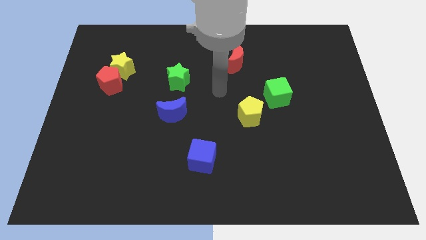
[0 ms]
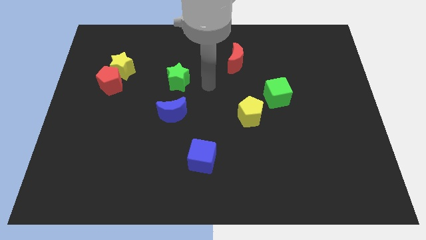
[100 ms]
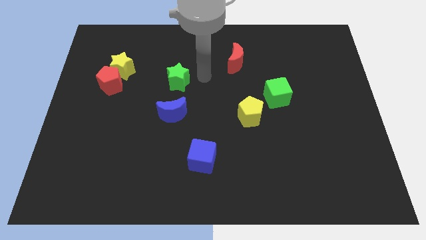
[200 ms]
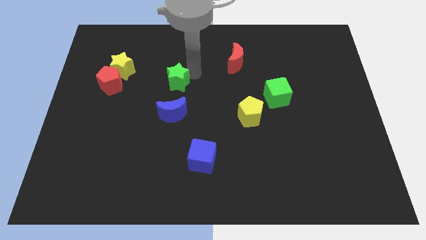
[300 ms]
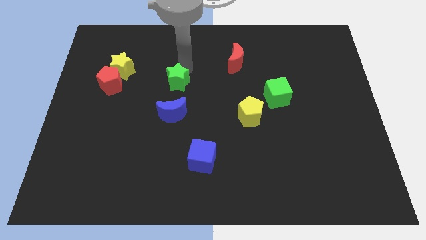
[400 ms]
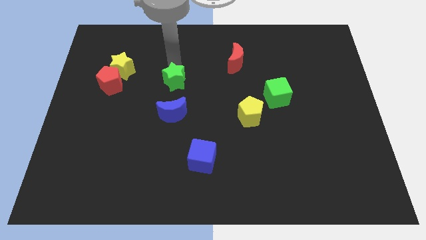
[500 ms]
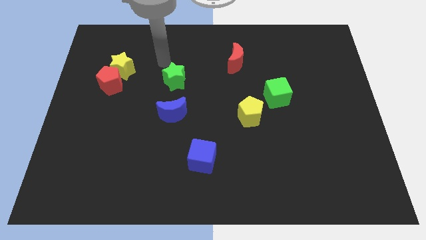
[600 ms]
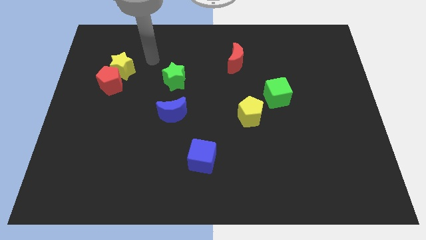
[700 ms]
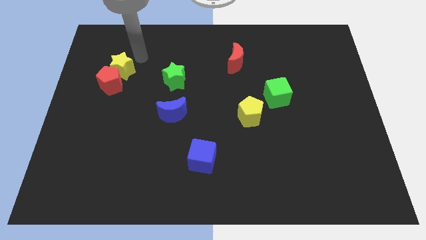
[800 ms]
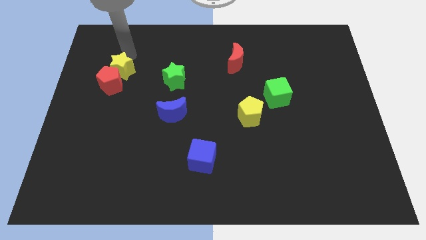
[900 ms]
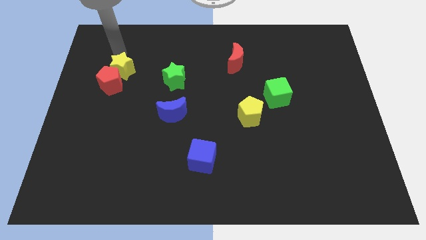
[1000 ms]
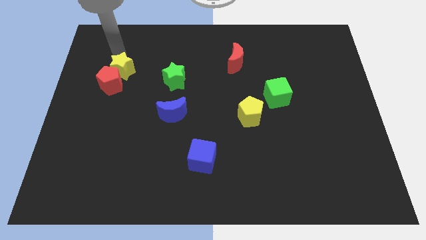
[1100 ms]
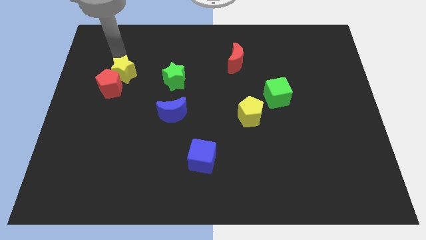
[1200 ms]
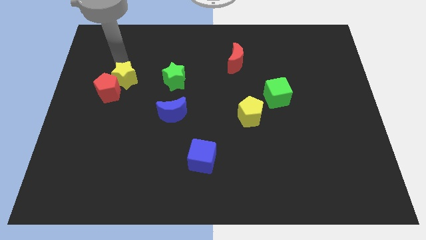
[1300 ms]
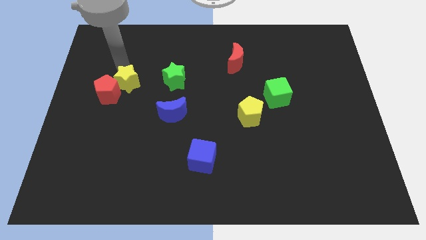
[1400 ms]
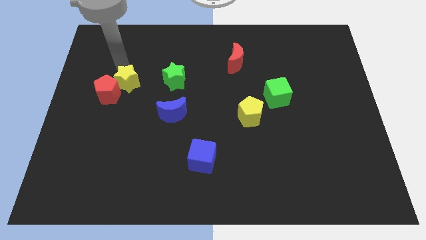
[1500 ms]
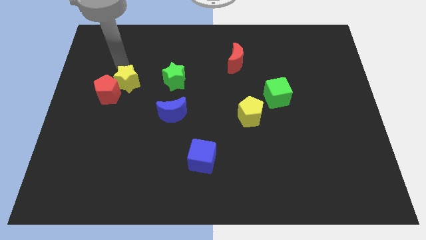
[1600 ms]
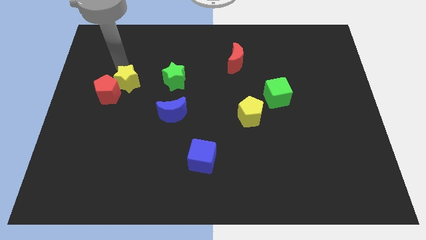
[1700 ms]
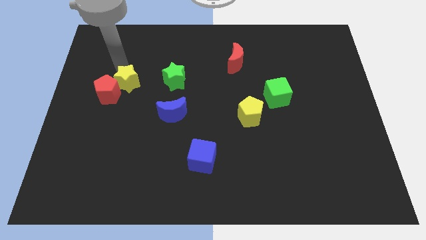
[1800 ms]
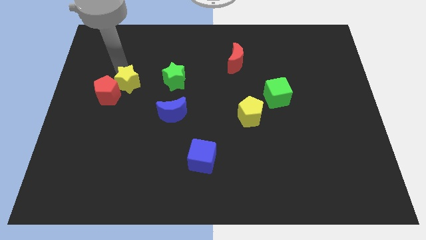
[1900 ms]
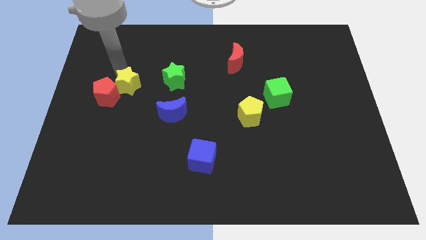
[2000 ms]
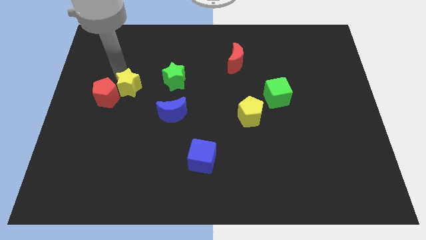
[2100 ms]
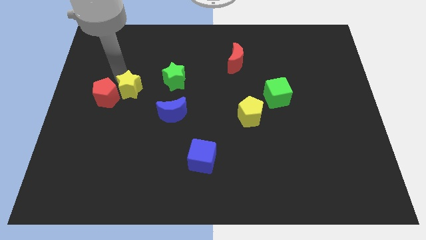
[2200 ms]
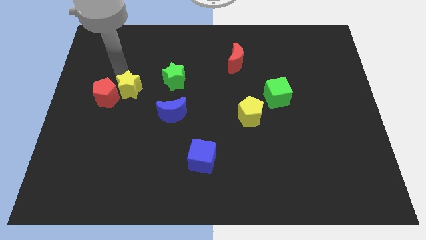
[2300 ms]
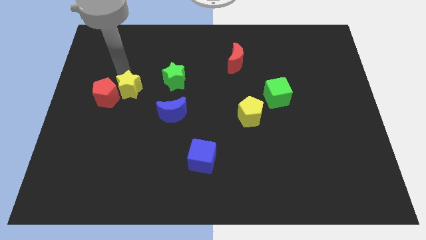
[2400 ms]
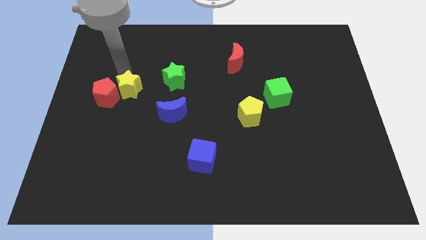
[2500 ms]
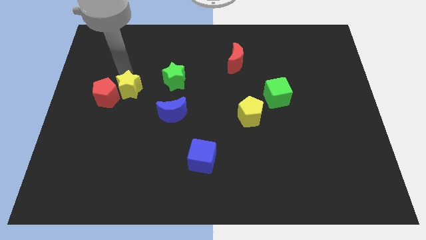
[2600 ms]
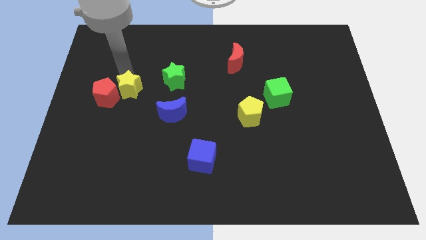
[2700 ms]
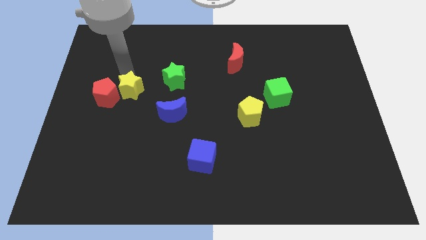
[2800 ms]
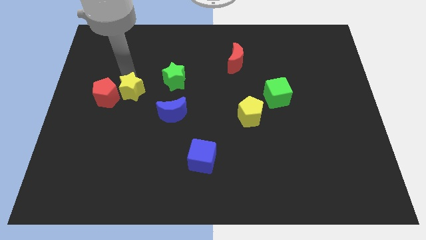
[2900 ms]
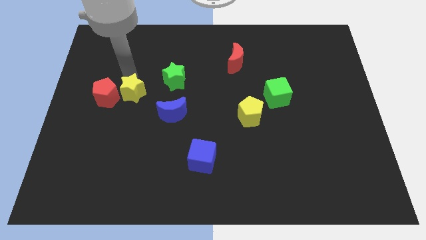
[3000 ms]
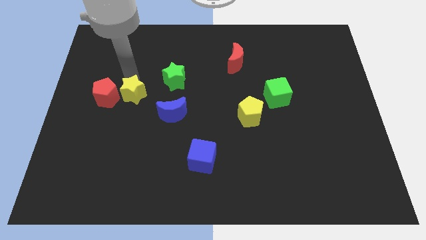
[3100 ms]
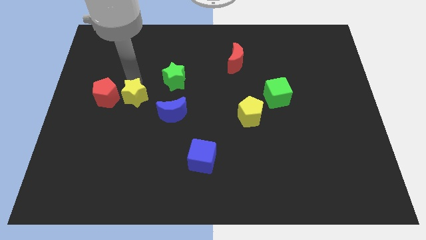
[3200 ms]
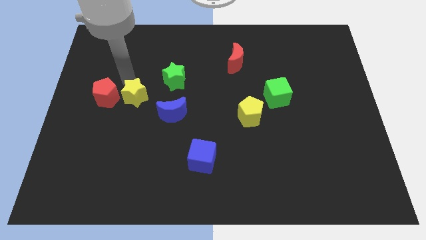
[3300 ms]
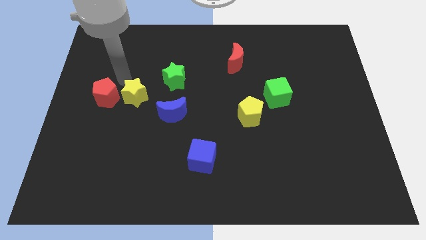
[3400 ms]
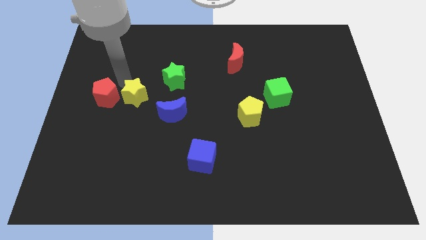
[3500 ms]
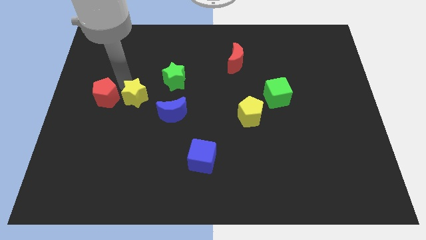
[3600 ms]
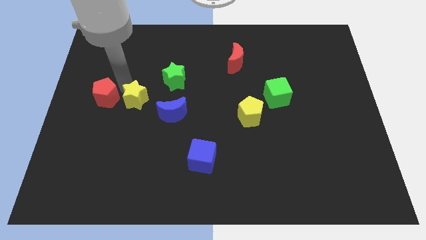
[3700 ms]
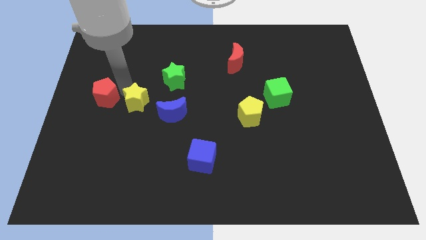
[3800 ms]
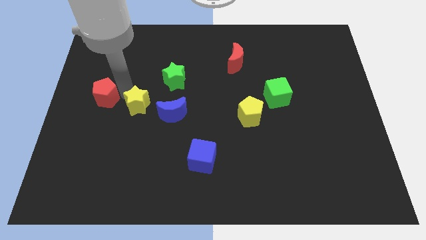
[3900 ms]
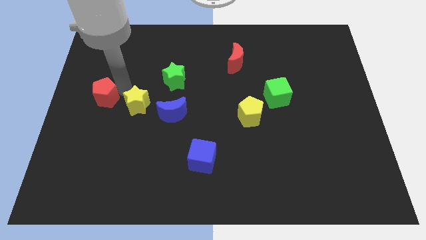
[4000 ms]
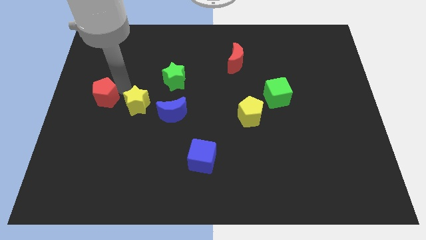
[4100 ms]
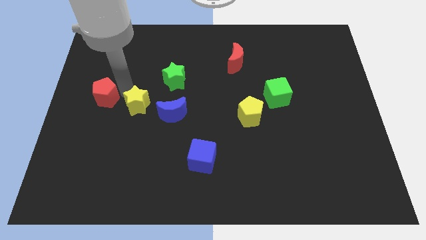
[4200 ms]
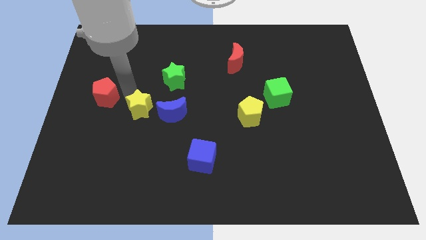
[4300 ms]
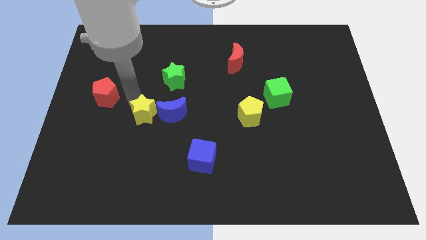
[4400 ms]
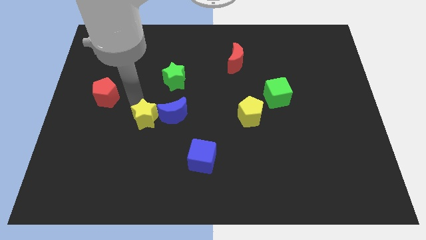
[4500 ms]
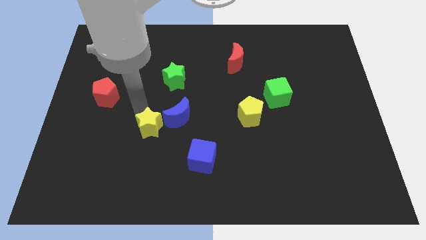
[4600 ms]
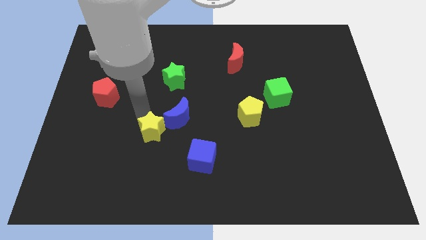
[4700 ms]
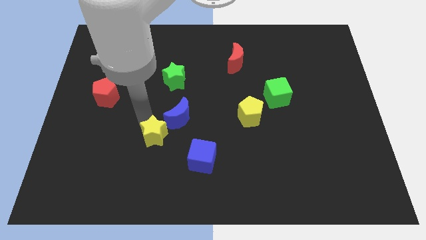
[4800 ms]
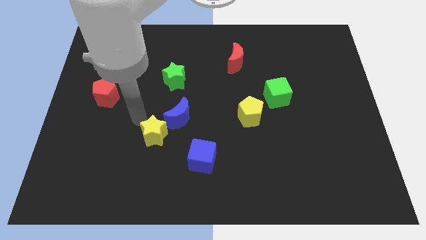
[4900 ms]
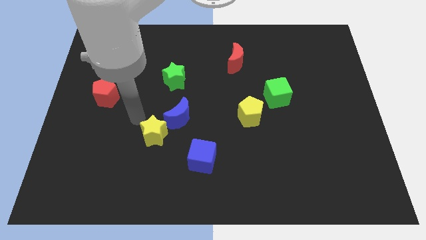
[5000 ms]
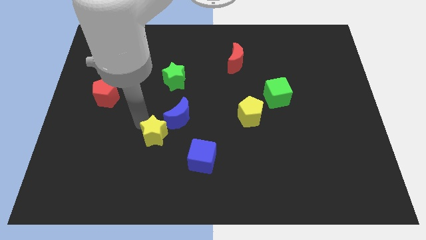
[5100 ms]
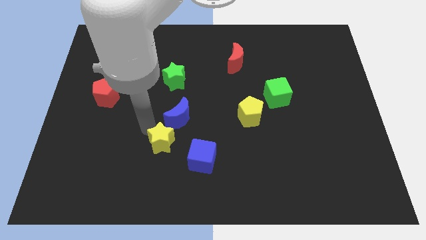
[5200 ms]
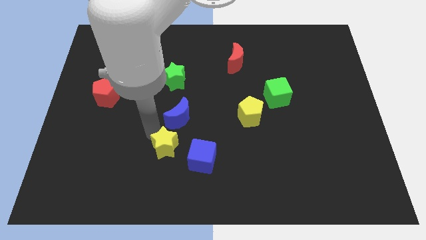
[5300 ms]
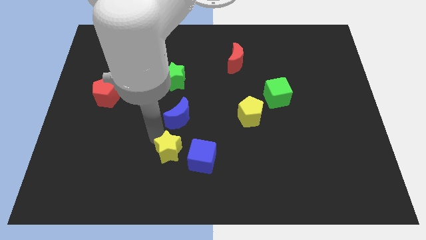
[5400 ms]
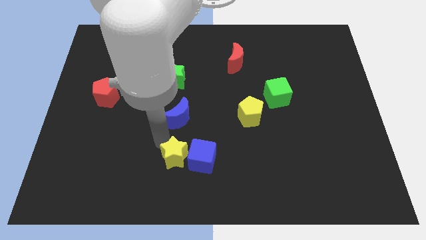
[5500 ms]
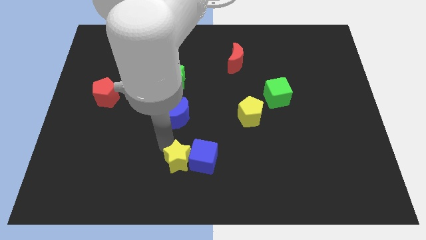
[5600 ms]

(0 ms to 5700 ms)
push the yellow star to the bottom side
